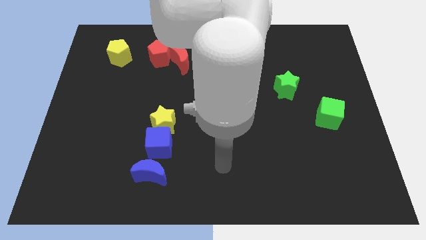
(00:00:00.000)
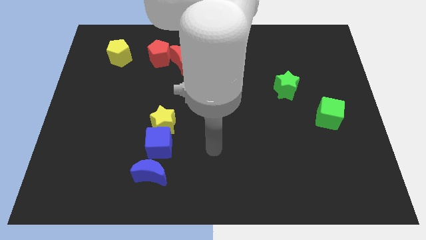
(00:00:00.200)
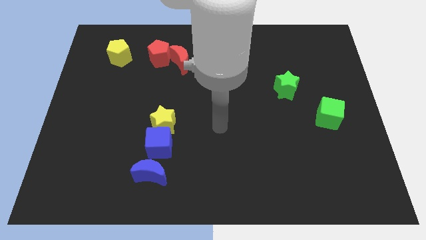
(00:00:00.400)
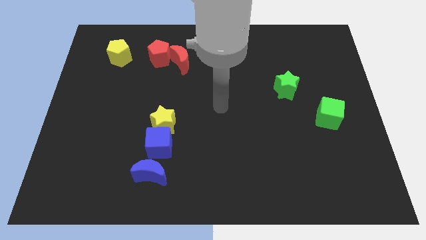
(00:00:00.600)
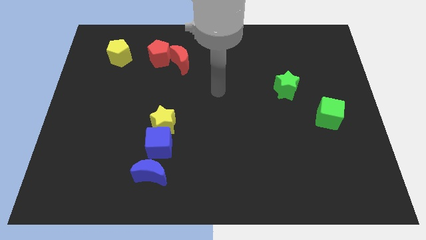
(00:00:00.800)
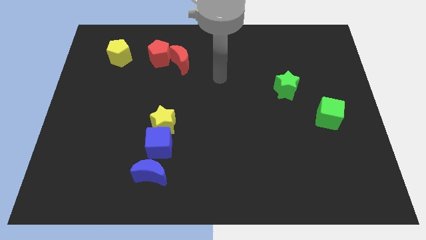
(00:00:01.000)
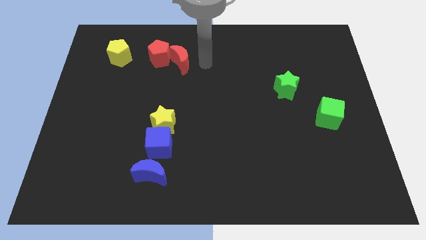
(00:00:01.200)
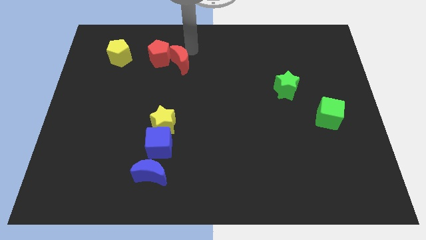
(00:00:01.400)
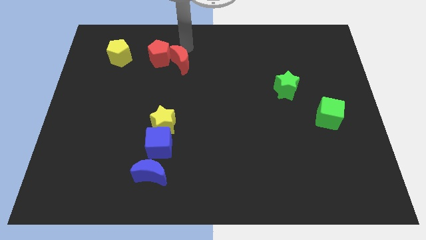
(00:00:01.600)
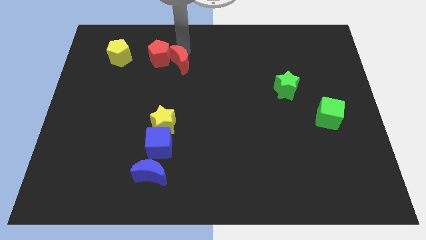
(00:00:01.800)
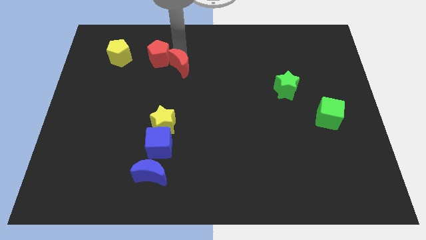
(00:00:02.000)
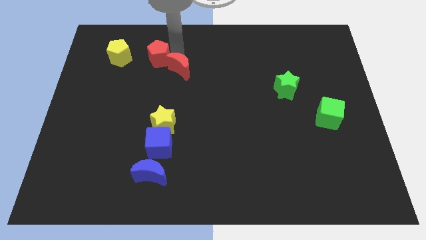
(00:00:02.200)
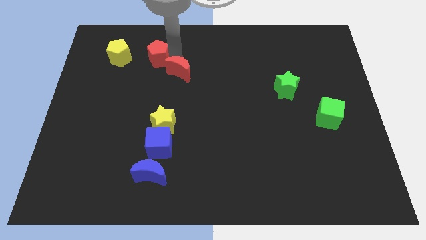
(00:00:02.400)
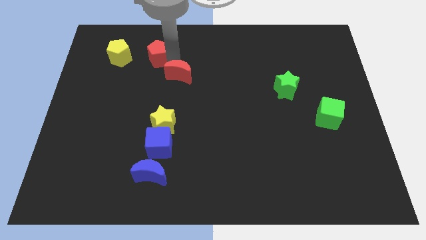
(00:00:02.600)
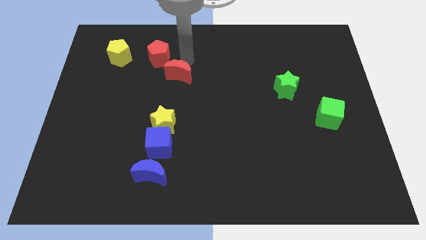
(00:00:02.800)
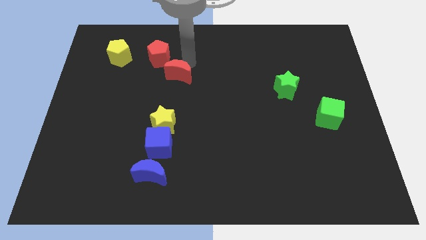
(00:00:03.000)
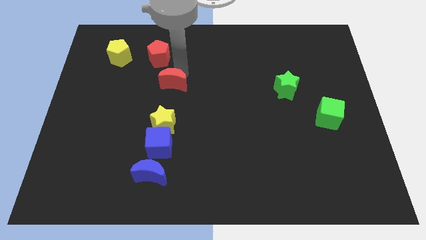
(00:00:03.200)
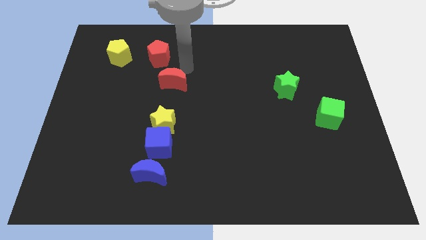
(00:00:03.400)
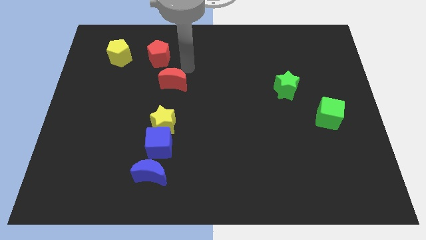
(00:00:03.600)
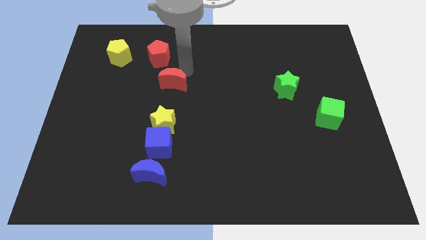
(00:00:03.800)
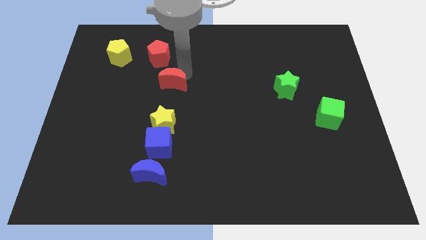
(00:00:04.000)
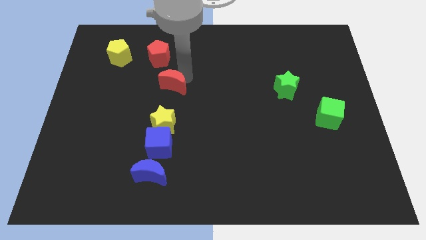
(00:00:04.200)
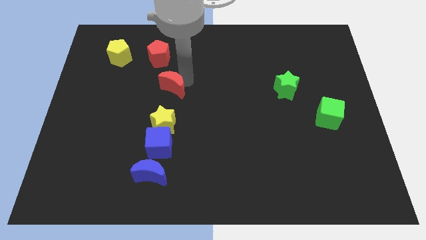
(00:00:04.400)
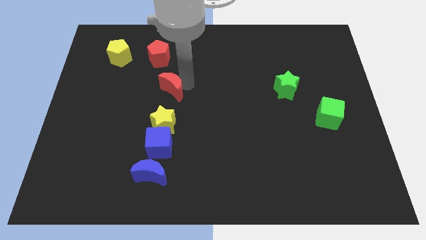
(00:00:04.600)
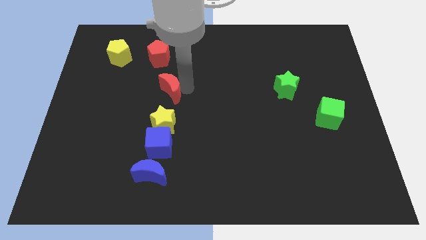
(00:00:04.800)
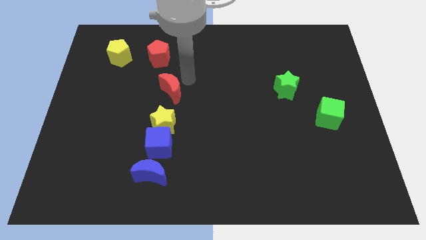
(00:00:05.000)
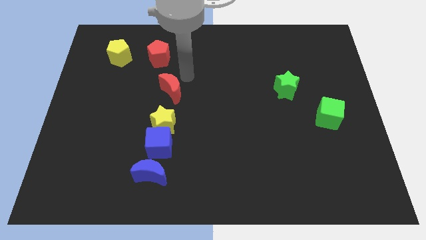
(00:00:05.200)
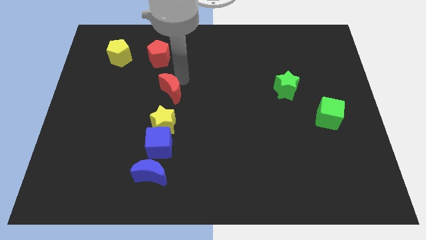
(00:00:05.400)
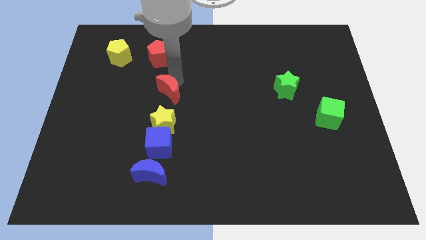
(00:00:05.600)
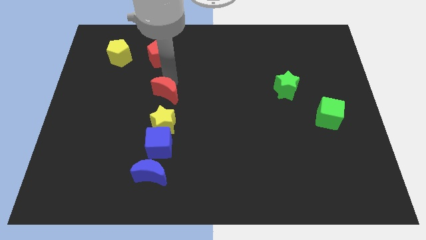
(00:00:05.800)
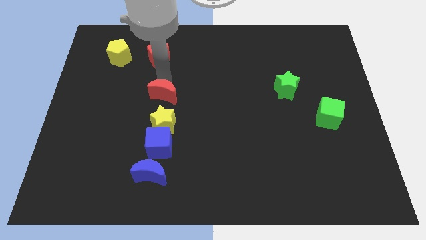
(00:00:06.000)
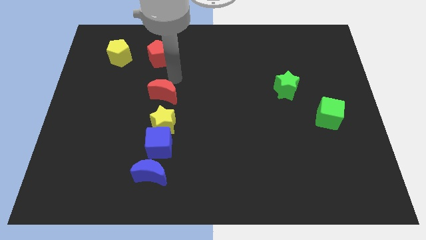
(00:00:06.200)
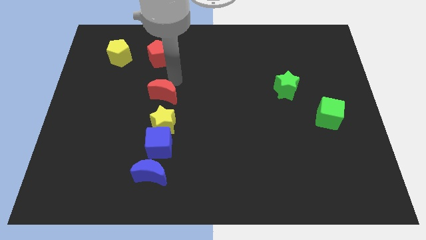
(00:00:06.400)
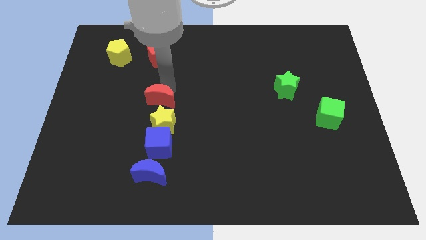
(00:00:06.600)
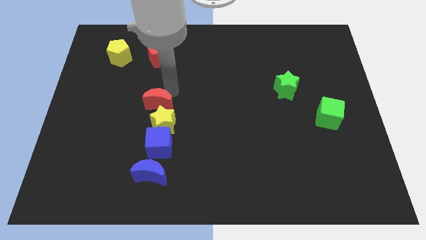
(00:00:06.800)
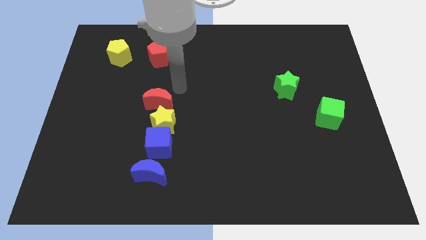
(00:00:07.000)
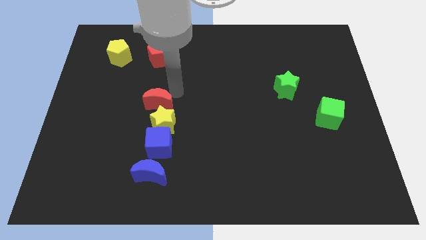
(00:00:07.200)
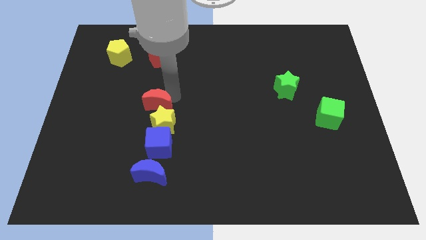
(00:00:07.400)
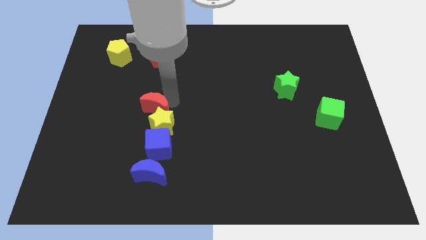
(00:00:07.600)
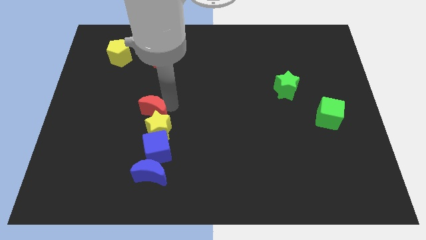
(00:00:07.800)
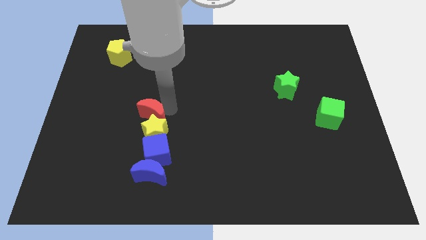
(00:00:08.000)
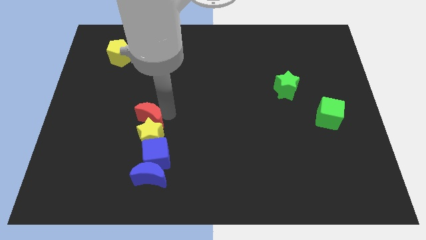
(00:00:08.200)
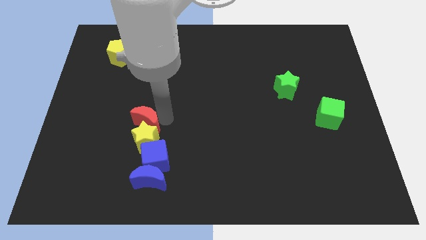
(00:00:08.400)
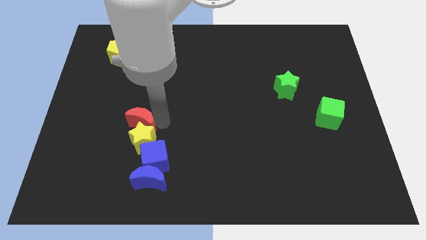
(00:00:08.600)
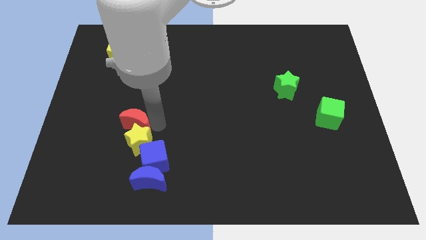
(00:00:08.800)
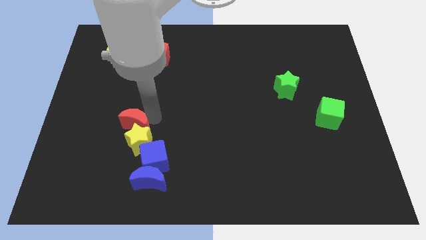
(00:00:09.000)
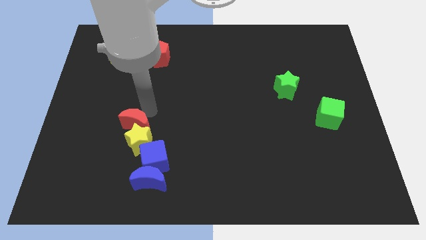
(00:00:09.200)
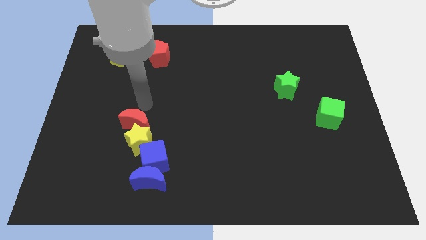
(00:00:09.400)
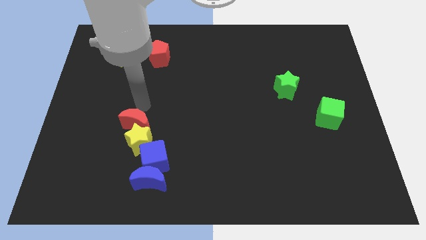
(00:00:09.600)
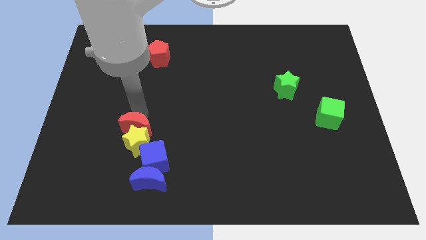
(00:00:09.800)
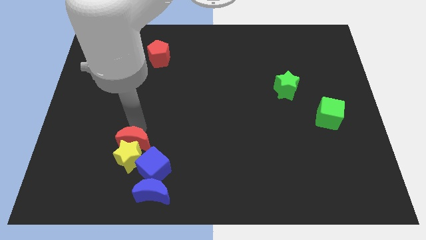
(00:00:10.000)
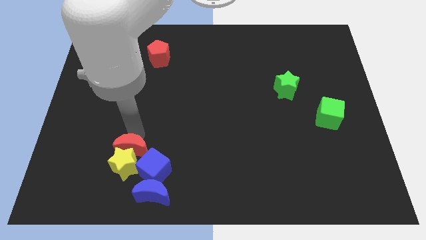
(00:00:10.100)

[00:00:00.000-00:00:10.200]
put the red moon to the top left of the blue moon

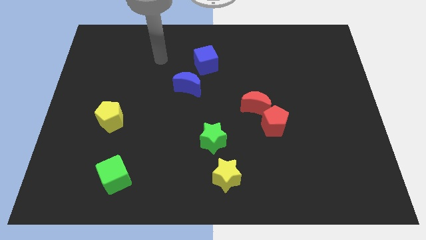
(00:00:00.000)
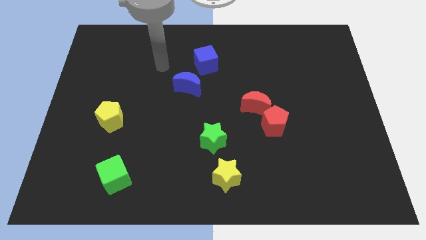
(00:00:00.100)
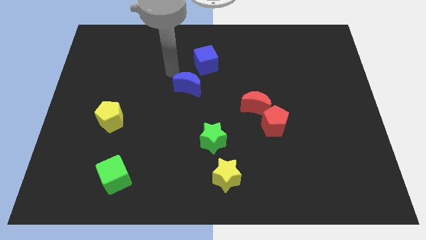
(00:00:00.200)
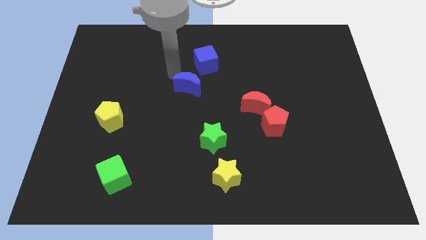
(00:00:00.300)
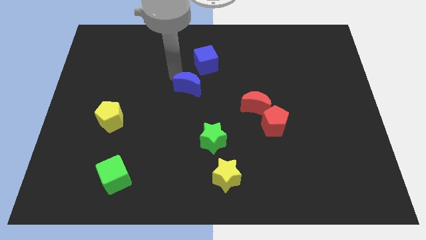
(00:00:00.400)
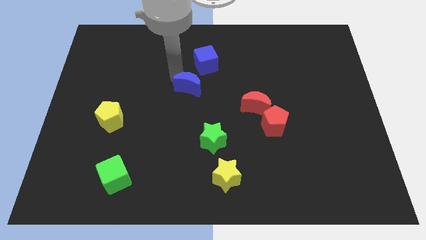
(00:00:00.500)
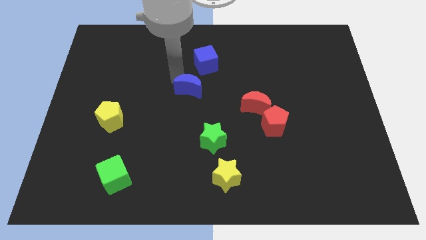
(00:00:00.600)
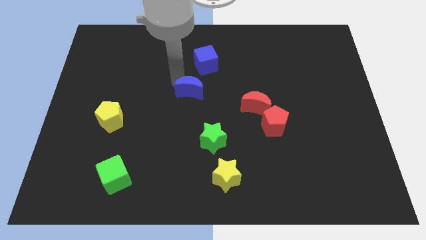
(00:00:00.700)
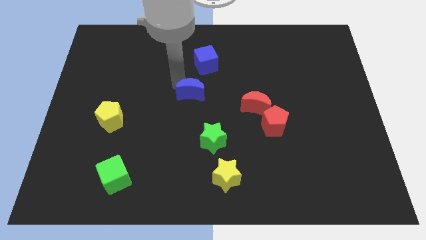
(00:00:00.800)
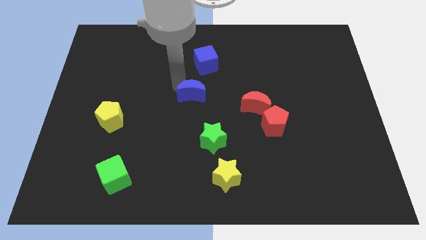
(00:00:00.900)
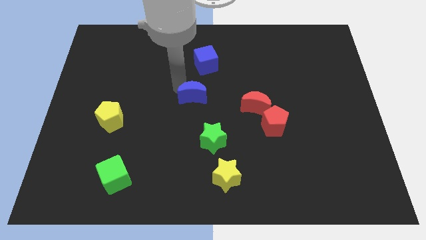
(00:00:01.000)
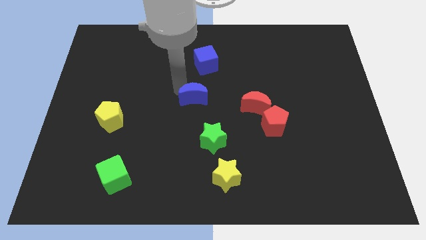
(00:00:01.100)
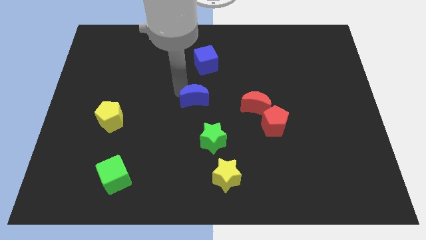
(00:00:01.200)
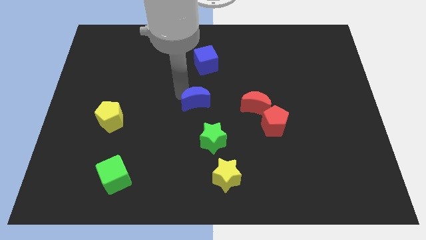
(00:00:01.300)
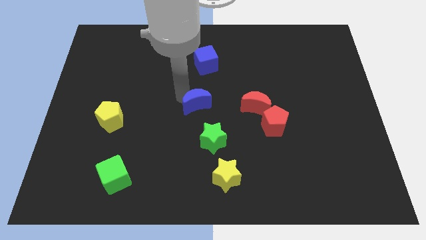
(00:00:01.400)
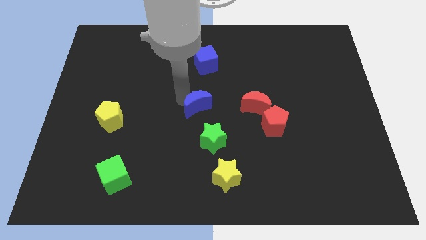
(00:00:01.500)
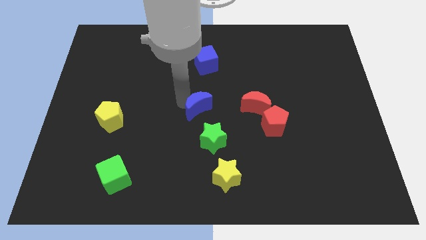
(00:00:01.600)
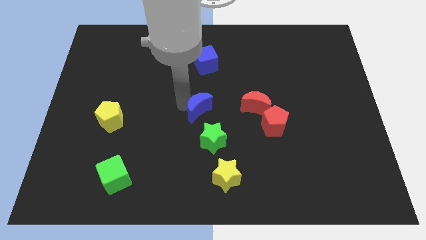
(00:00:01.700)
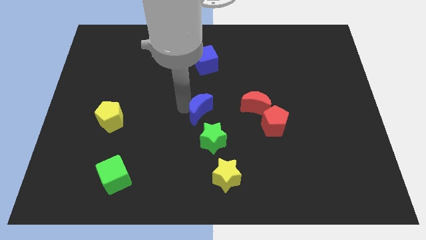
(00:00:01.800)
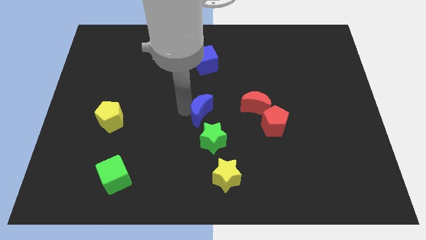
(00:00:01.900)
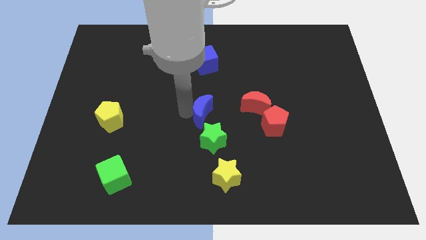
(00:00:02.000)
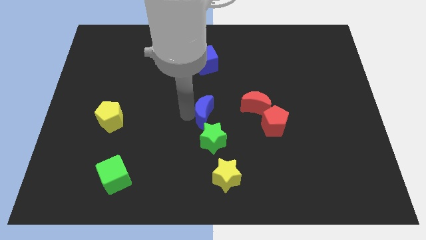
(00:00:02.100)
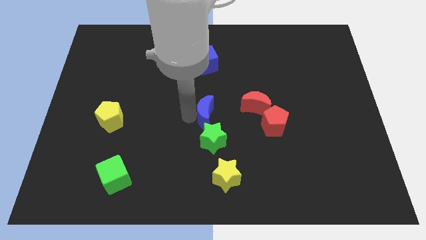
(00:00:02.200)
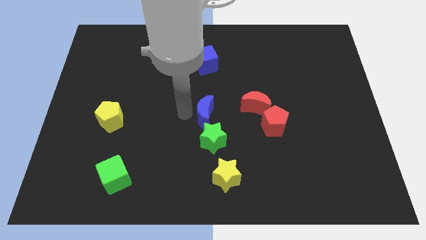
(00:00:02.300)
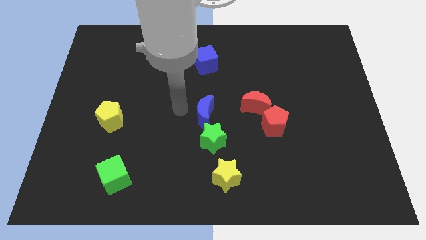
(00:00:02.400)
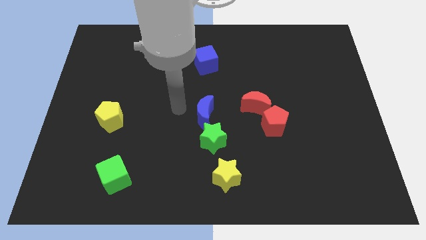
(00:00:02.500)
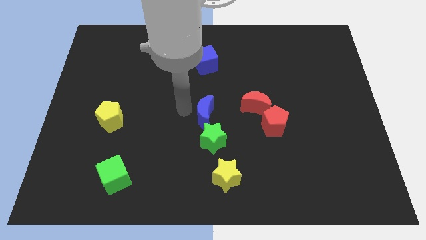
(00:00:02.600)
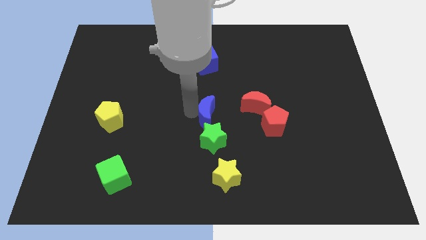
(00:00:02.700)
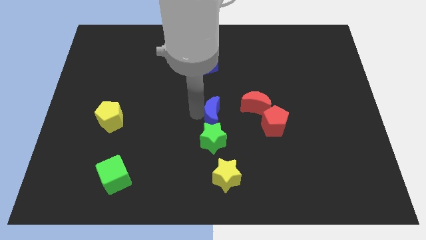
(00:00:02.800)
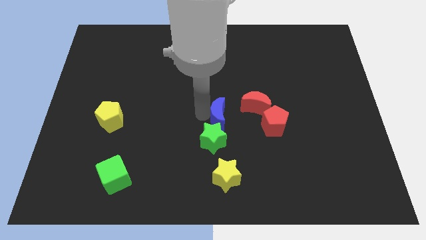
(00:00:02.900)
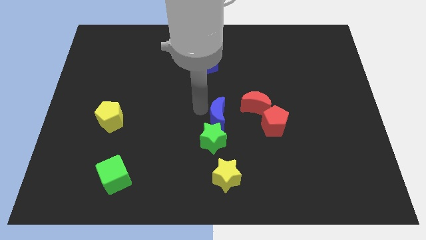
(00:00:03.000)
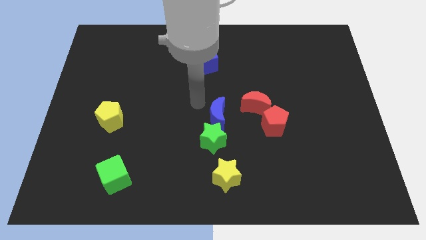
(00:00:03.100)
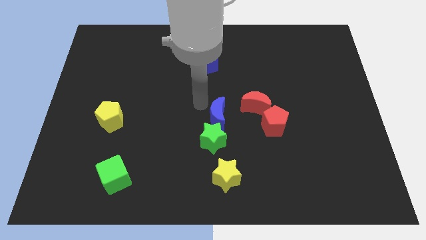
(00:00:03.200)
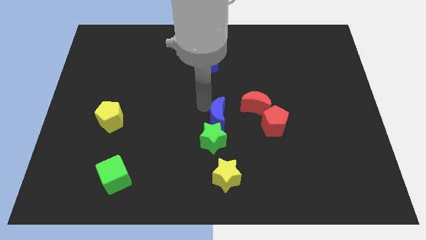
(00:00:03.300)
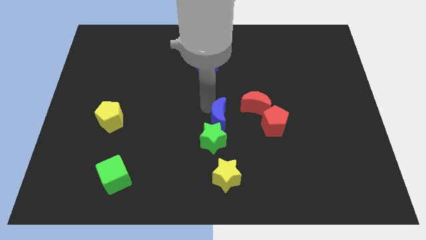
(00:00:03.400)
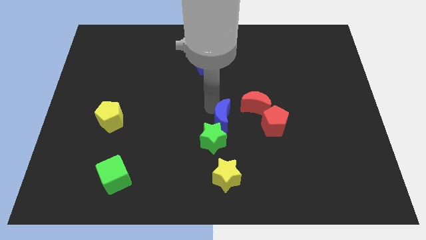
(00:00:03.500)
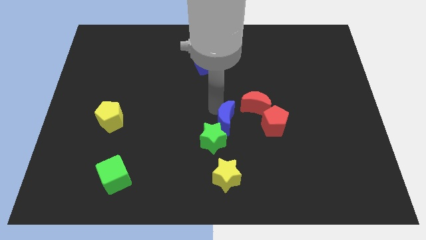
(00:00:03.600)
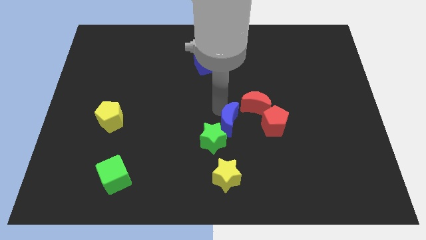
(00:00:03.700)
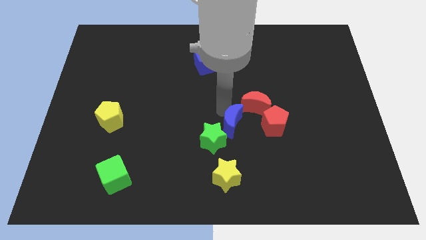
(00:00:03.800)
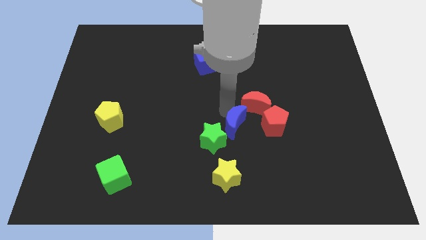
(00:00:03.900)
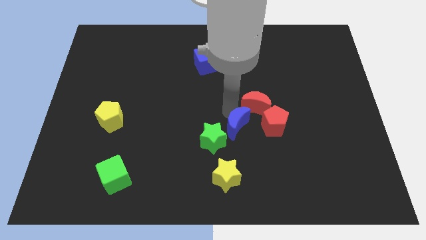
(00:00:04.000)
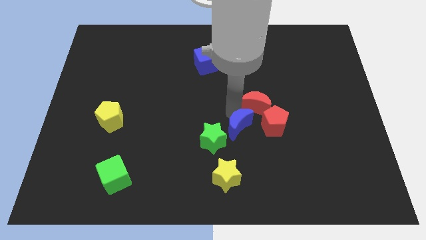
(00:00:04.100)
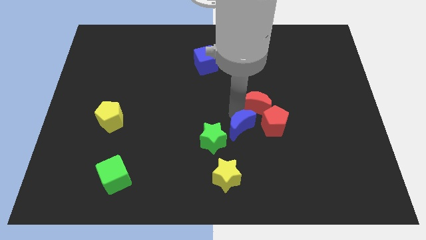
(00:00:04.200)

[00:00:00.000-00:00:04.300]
push the blue moon to the bottom left side of the red pentagon
